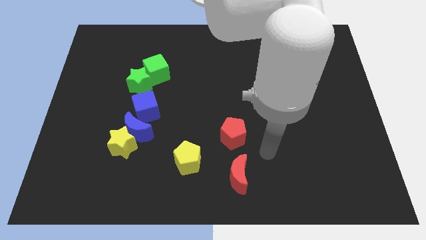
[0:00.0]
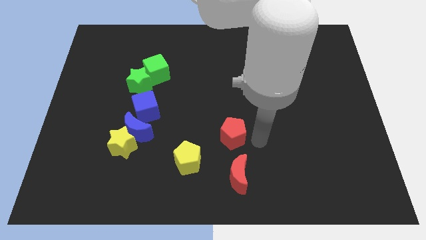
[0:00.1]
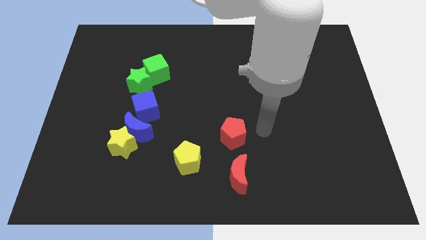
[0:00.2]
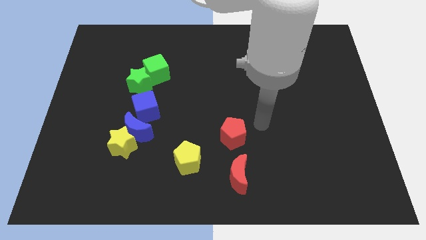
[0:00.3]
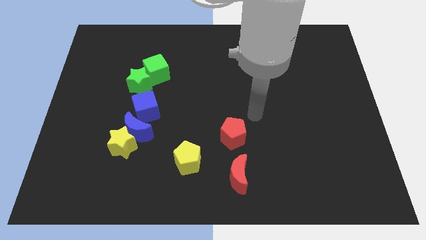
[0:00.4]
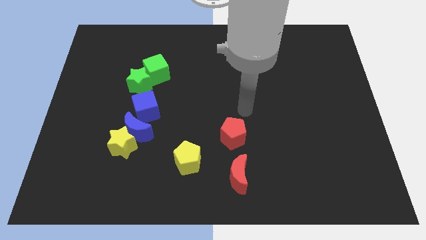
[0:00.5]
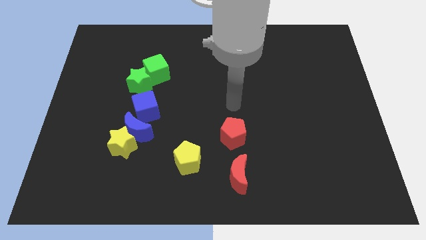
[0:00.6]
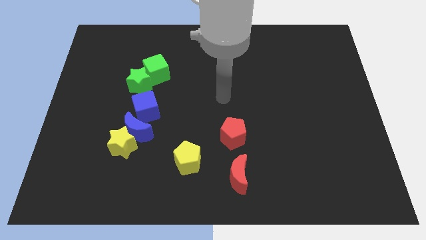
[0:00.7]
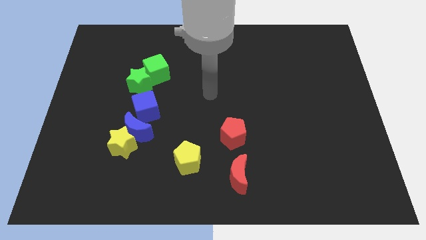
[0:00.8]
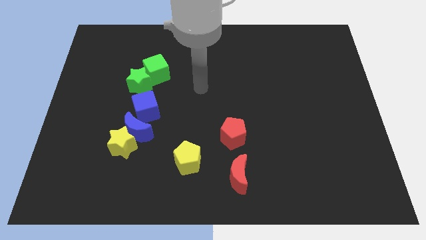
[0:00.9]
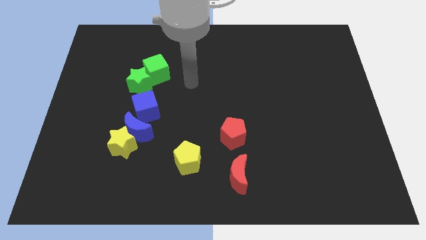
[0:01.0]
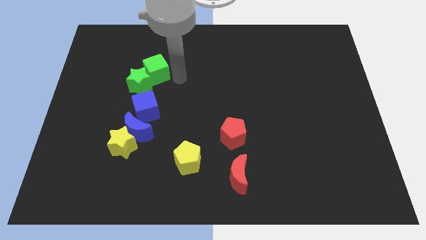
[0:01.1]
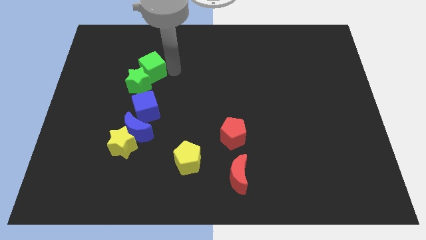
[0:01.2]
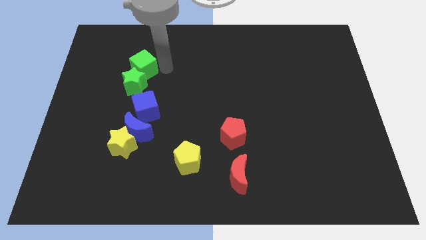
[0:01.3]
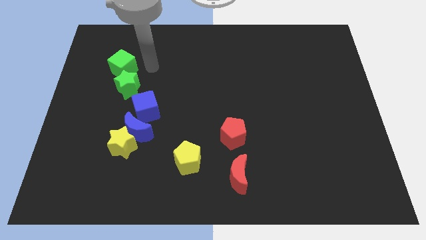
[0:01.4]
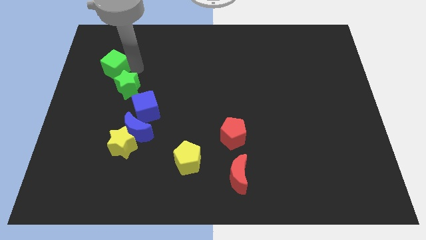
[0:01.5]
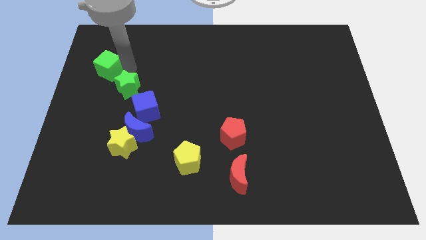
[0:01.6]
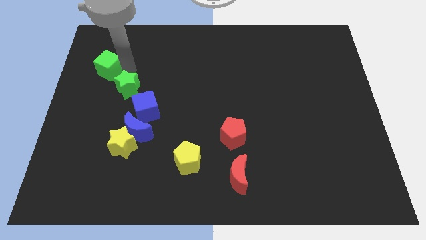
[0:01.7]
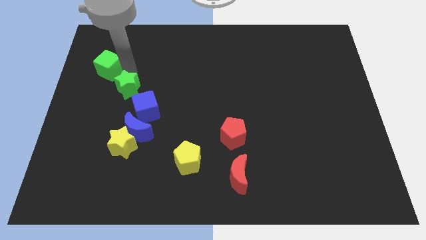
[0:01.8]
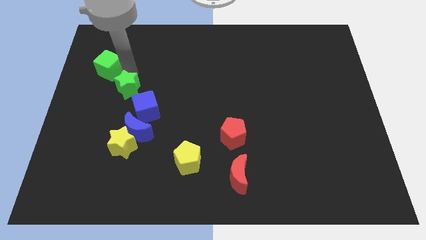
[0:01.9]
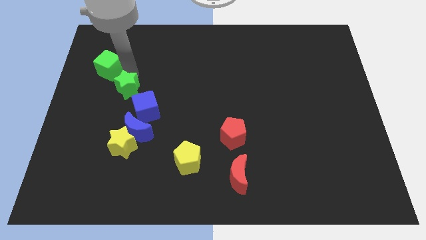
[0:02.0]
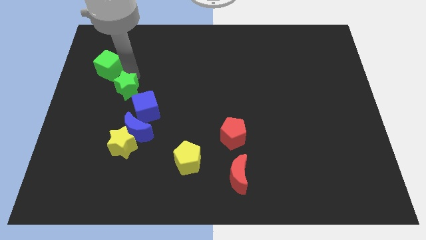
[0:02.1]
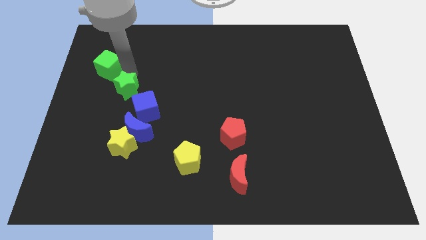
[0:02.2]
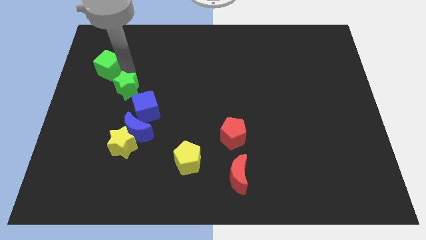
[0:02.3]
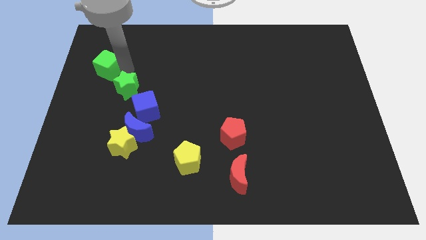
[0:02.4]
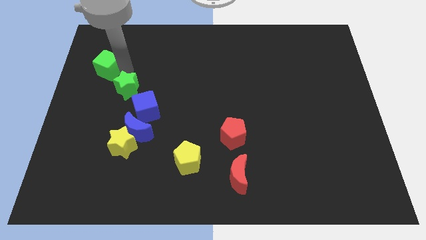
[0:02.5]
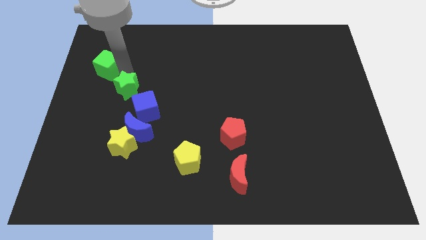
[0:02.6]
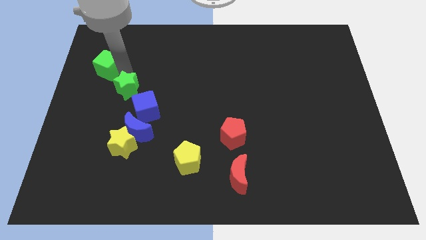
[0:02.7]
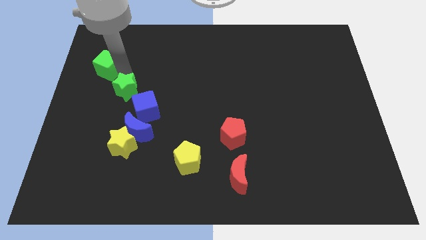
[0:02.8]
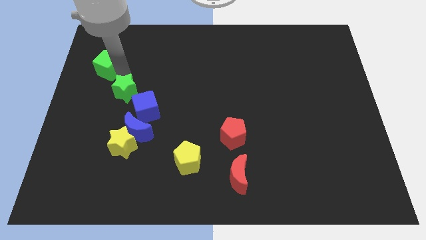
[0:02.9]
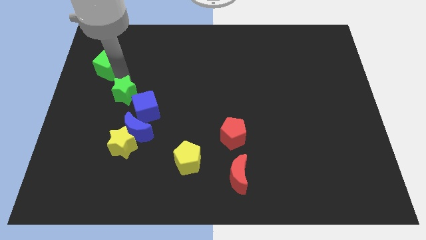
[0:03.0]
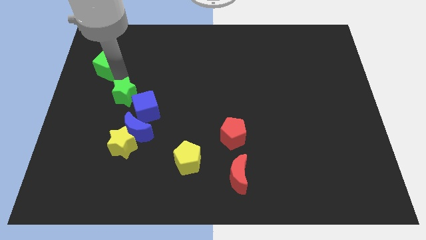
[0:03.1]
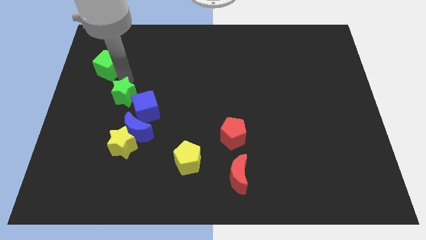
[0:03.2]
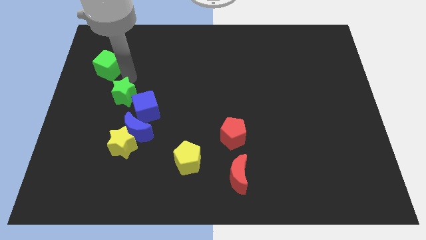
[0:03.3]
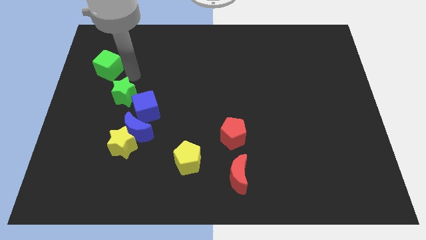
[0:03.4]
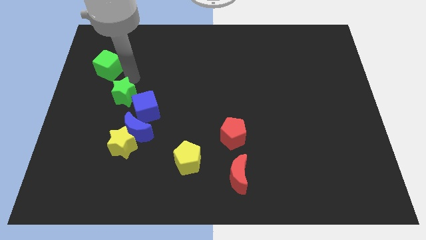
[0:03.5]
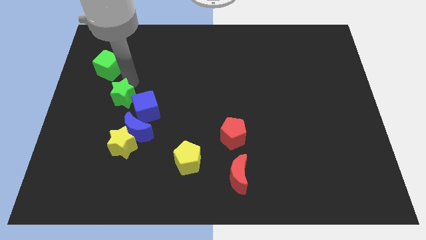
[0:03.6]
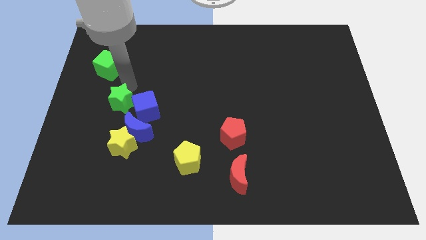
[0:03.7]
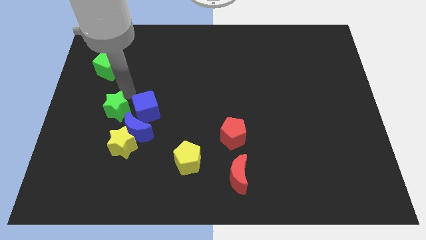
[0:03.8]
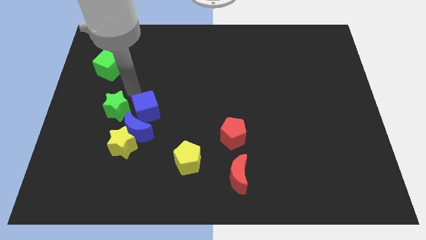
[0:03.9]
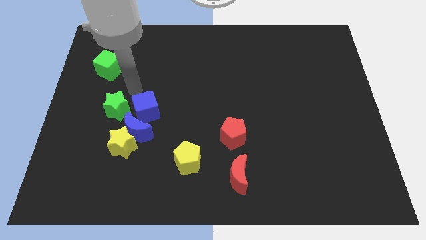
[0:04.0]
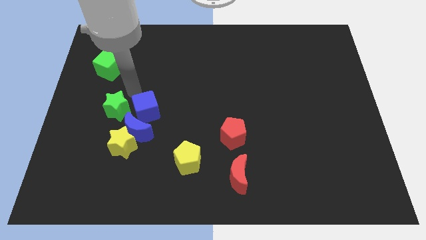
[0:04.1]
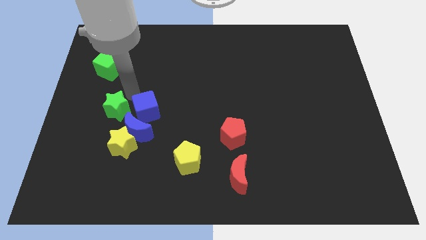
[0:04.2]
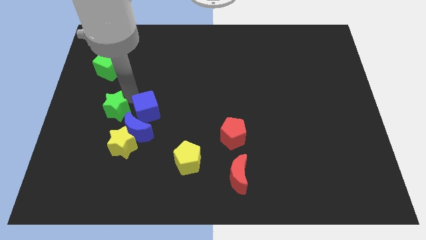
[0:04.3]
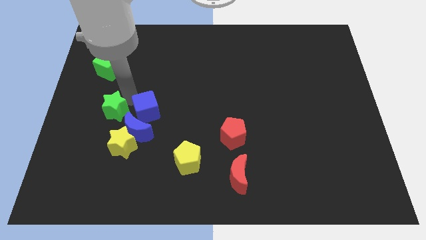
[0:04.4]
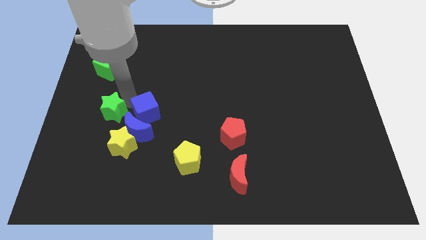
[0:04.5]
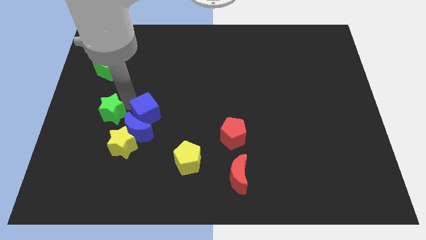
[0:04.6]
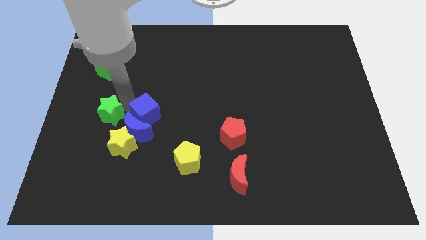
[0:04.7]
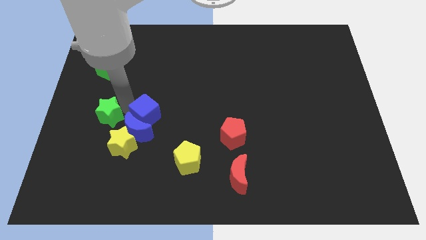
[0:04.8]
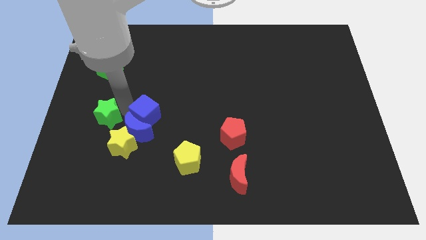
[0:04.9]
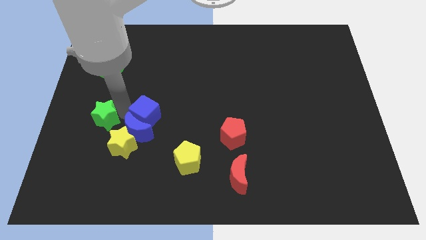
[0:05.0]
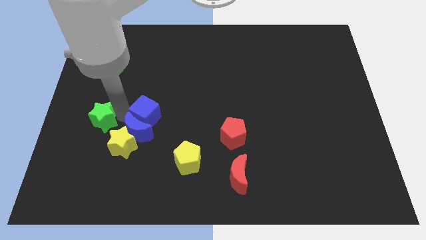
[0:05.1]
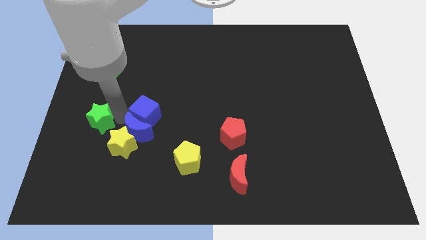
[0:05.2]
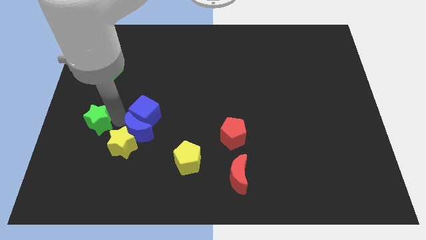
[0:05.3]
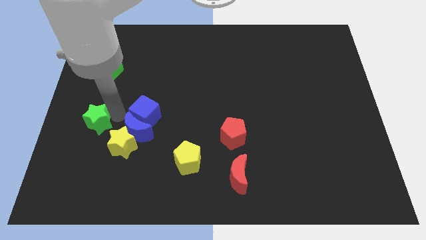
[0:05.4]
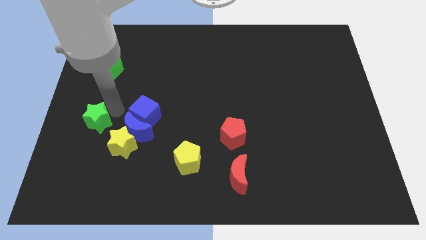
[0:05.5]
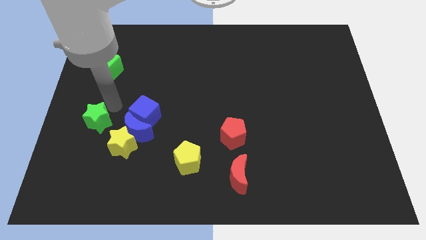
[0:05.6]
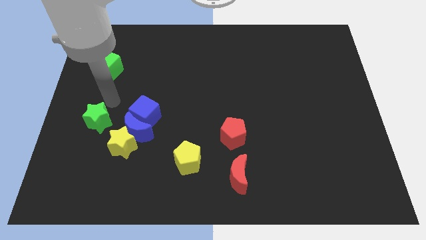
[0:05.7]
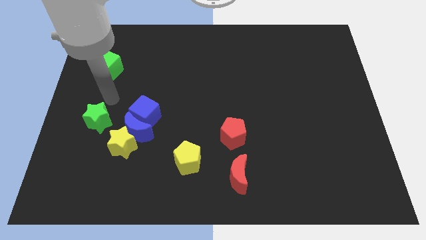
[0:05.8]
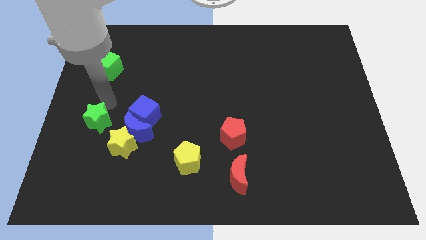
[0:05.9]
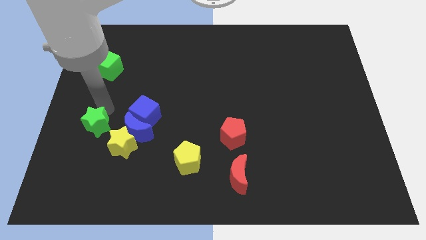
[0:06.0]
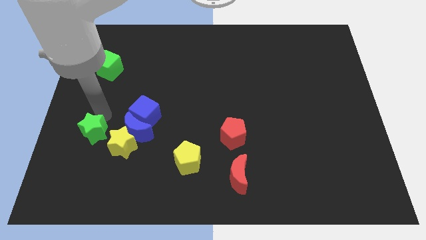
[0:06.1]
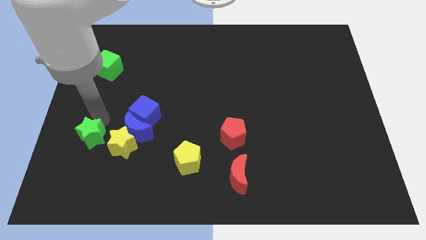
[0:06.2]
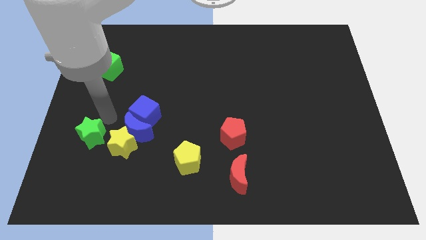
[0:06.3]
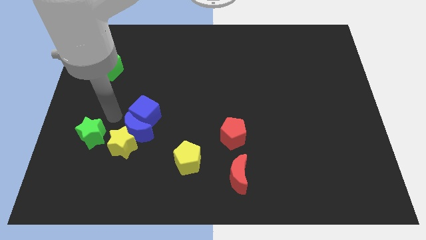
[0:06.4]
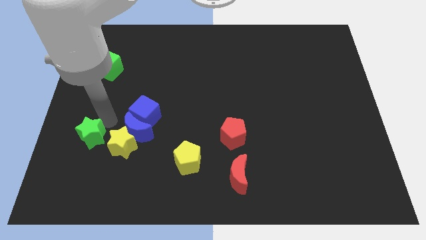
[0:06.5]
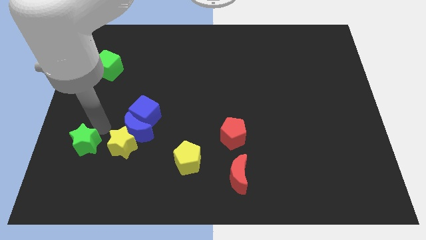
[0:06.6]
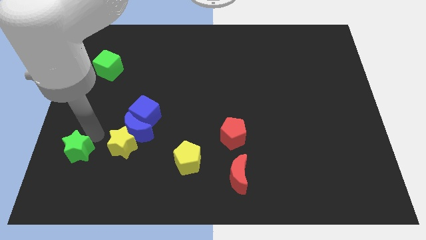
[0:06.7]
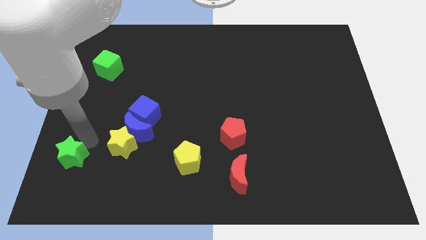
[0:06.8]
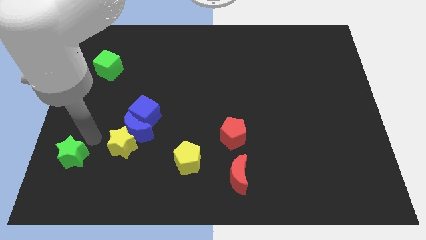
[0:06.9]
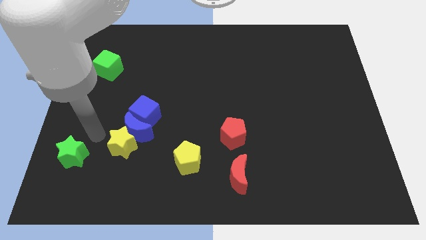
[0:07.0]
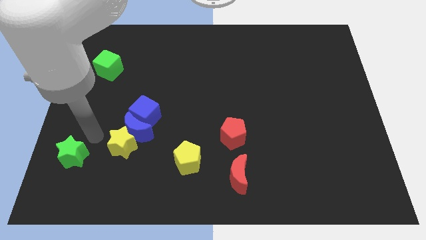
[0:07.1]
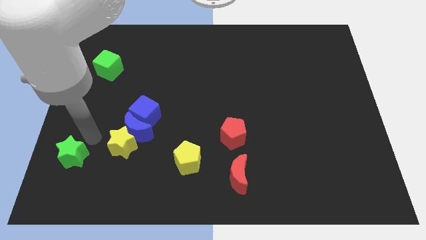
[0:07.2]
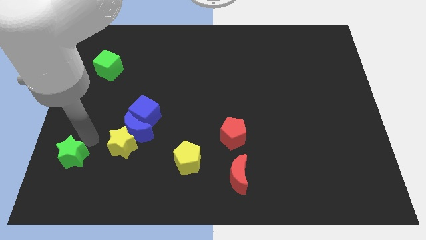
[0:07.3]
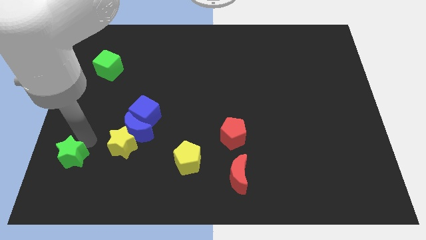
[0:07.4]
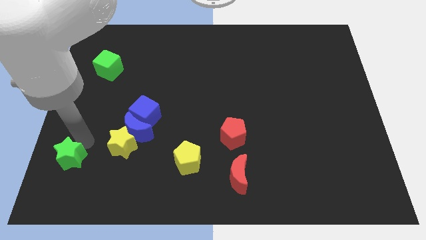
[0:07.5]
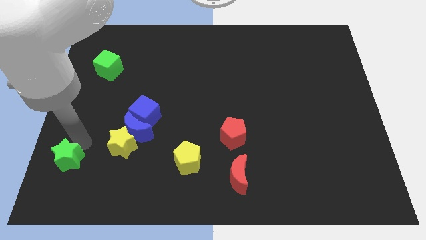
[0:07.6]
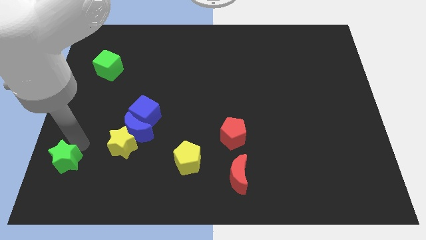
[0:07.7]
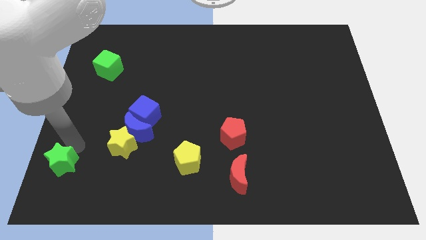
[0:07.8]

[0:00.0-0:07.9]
move the green star to the lower left corner
